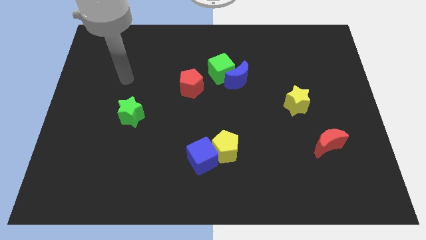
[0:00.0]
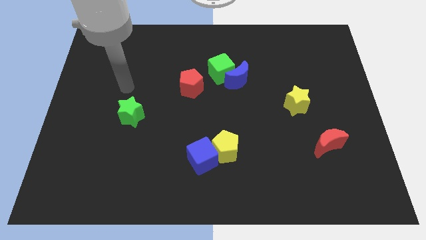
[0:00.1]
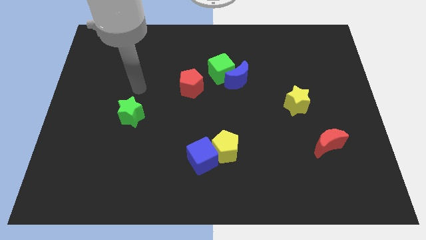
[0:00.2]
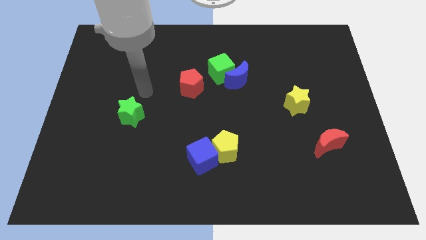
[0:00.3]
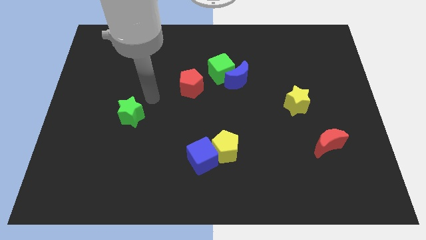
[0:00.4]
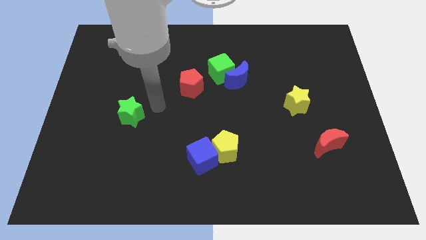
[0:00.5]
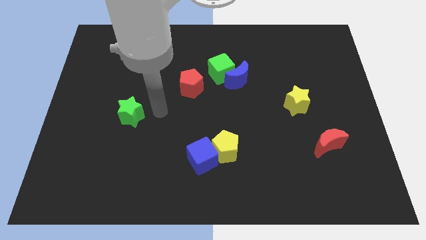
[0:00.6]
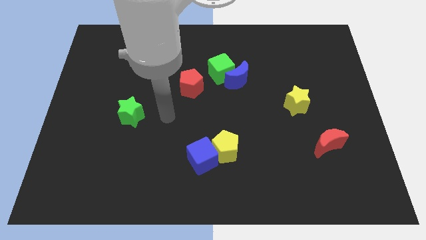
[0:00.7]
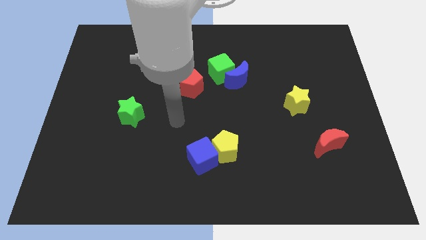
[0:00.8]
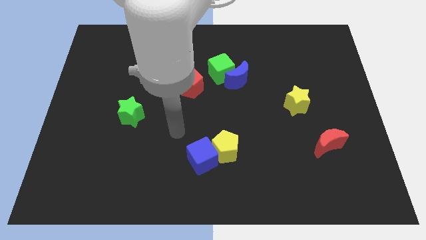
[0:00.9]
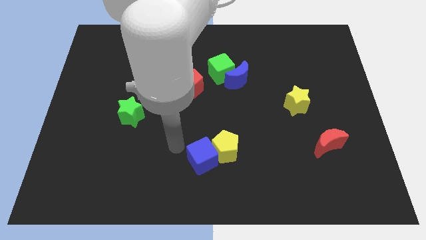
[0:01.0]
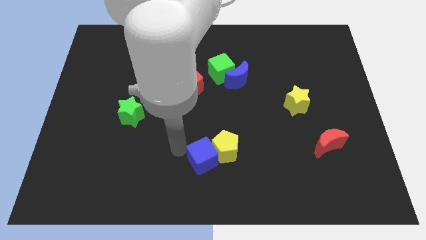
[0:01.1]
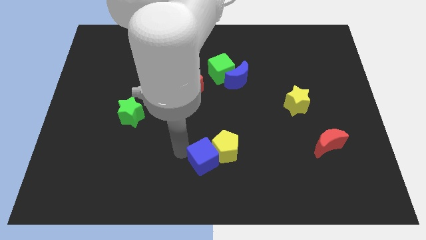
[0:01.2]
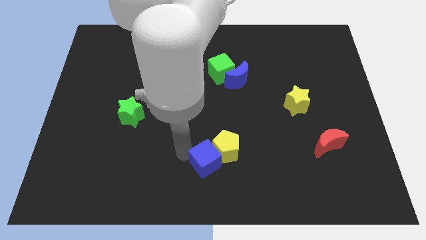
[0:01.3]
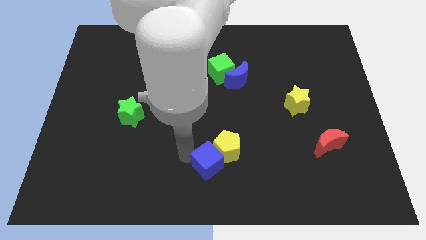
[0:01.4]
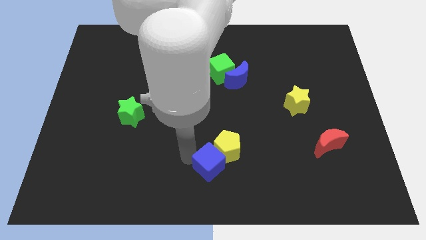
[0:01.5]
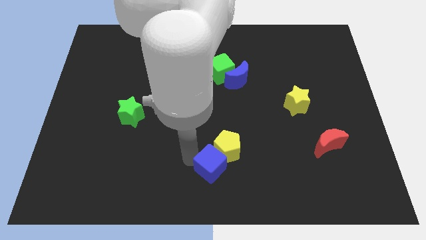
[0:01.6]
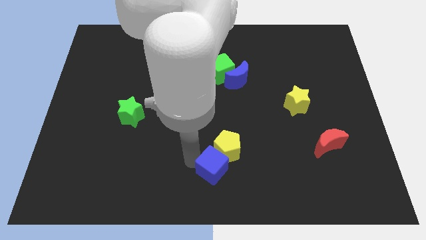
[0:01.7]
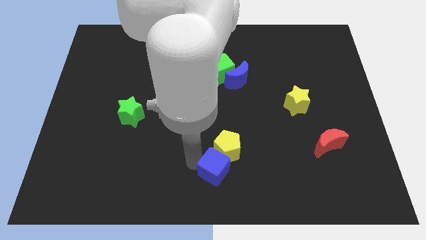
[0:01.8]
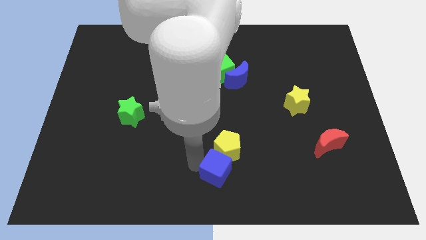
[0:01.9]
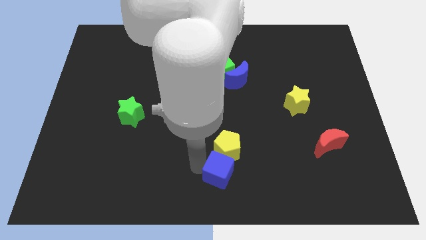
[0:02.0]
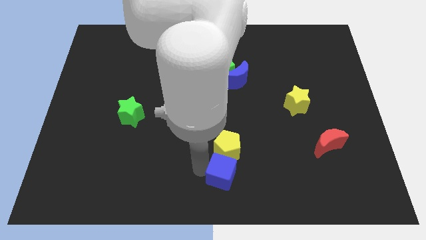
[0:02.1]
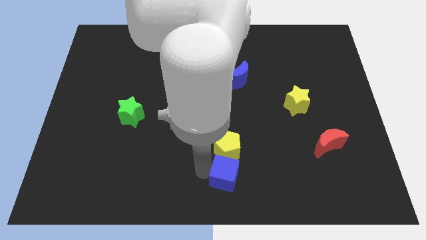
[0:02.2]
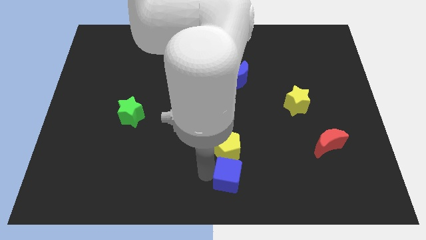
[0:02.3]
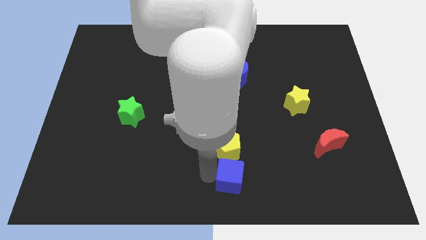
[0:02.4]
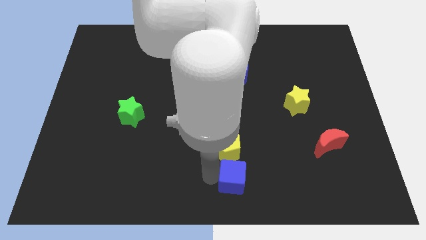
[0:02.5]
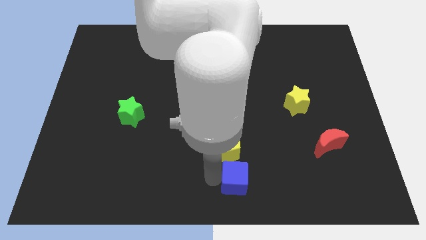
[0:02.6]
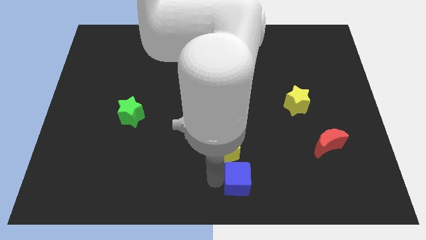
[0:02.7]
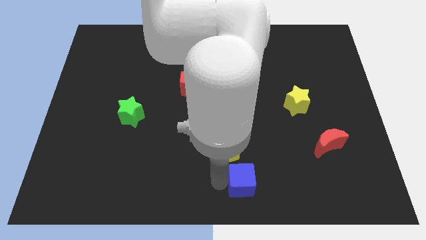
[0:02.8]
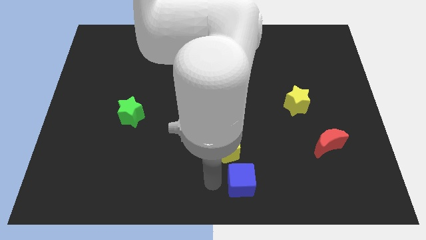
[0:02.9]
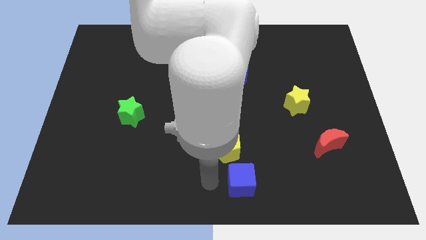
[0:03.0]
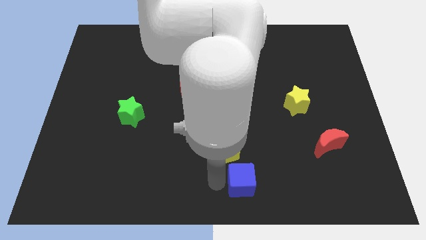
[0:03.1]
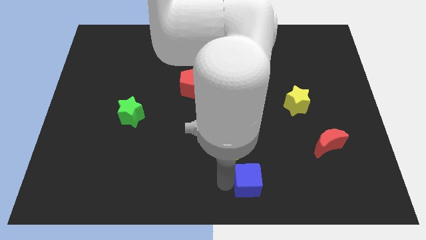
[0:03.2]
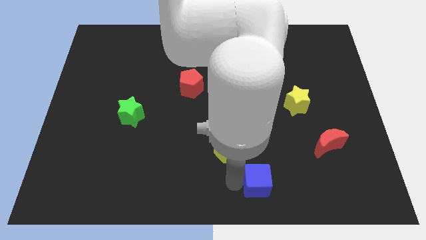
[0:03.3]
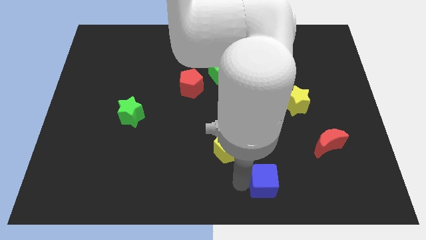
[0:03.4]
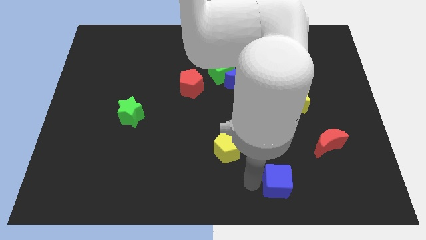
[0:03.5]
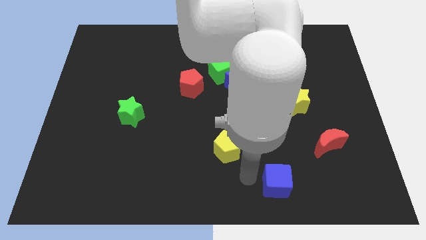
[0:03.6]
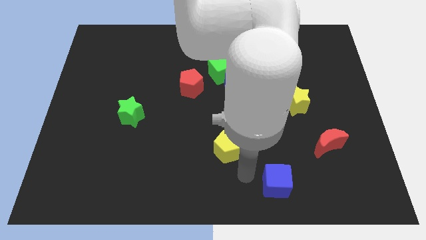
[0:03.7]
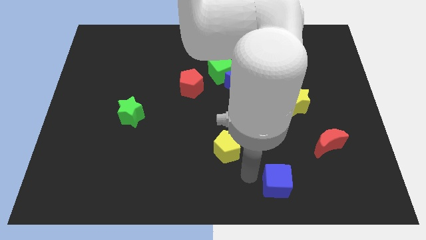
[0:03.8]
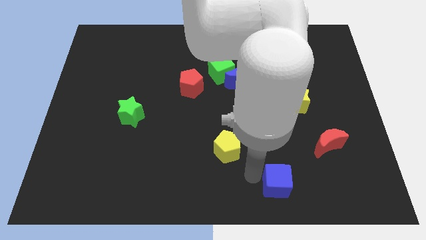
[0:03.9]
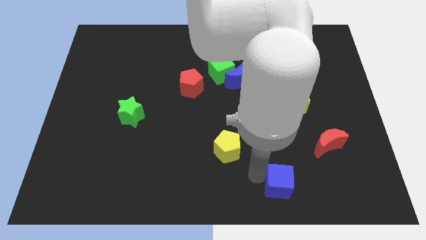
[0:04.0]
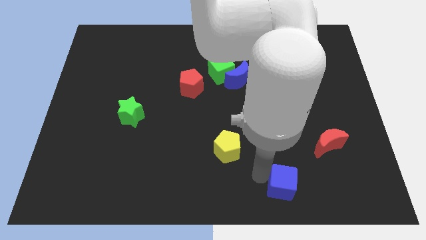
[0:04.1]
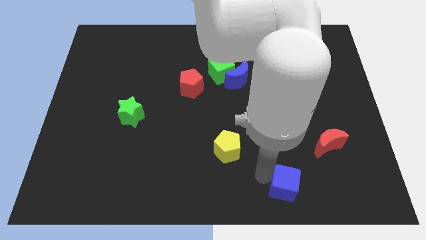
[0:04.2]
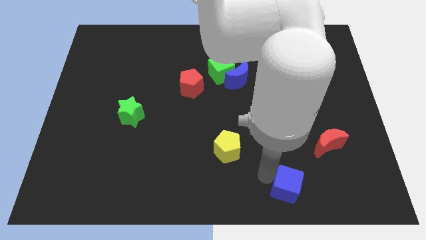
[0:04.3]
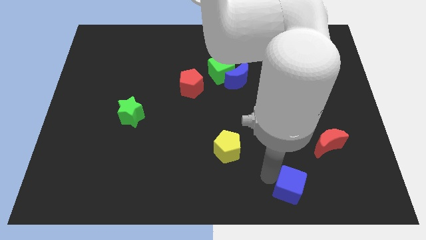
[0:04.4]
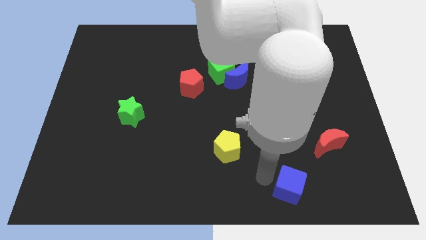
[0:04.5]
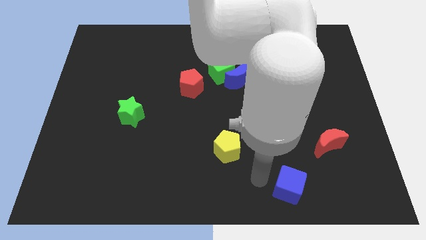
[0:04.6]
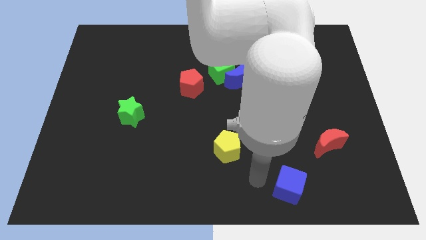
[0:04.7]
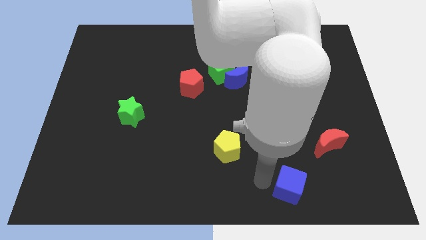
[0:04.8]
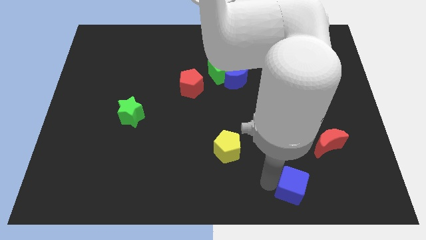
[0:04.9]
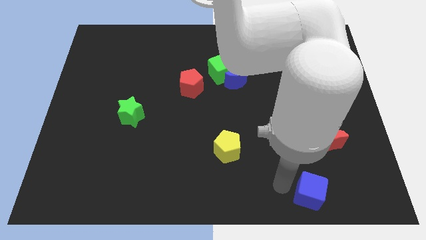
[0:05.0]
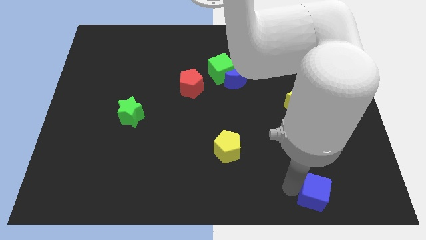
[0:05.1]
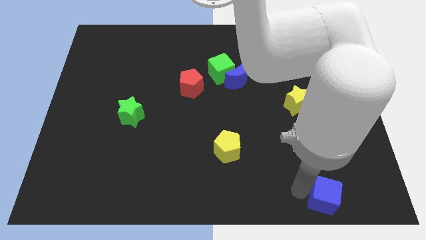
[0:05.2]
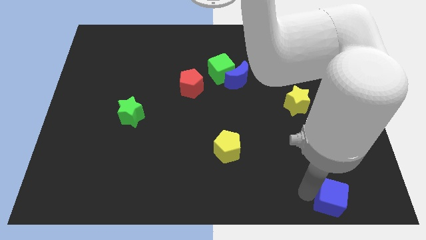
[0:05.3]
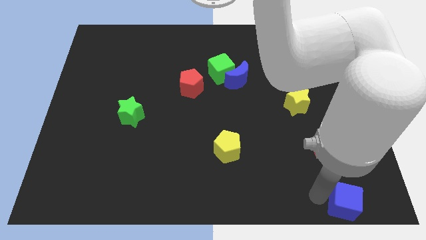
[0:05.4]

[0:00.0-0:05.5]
move the blue cube to the lower right corner

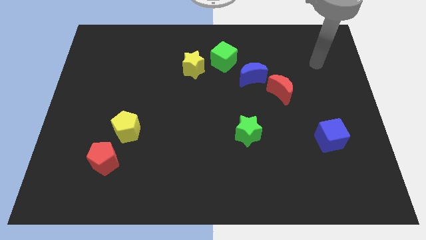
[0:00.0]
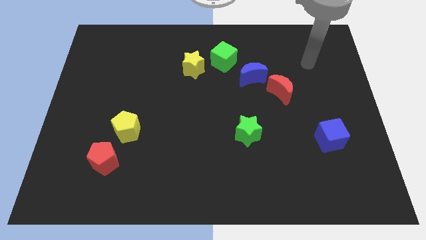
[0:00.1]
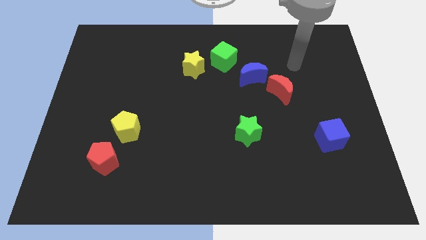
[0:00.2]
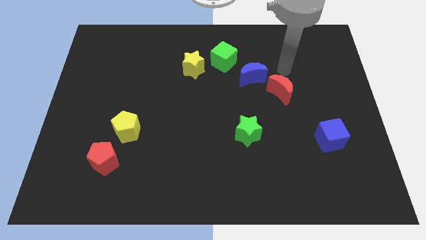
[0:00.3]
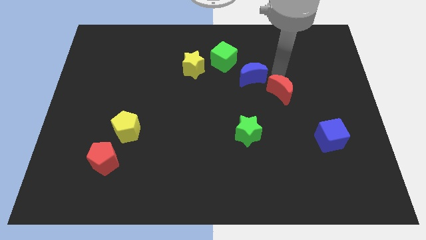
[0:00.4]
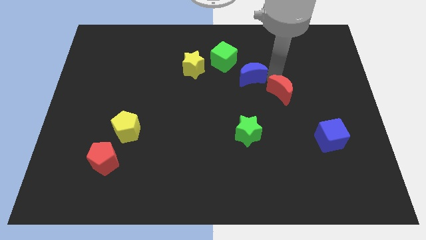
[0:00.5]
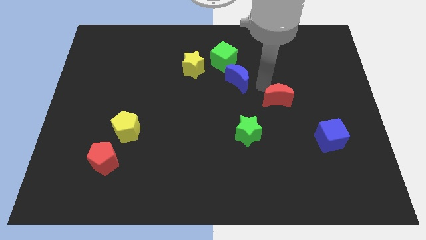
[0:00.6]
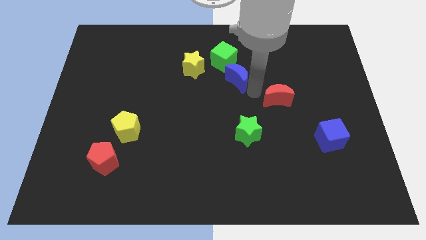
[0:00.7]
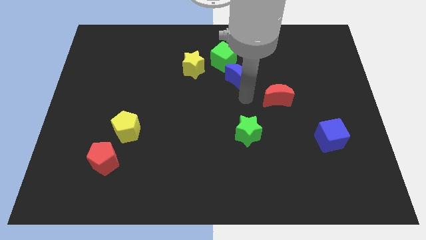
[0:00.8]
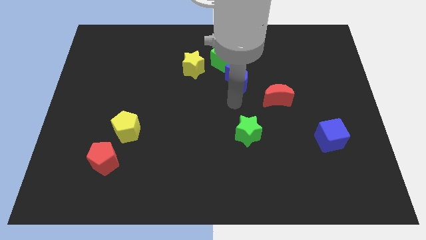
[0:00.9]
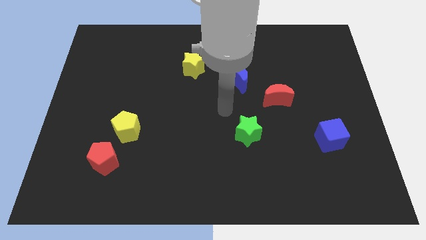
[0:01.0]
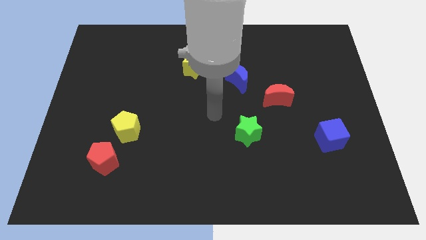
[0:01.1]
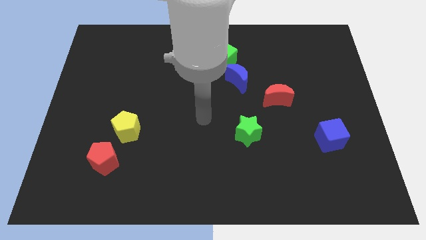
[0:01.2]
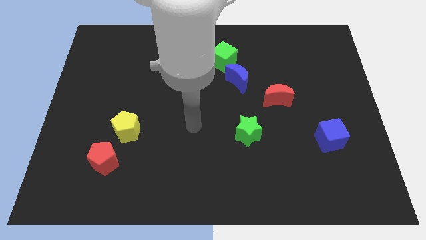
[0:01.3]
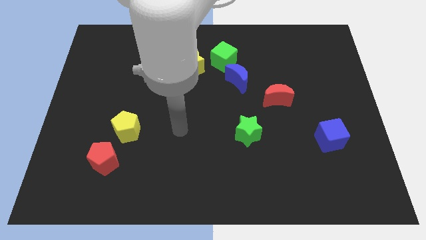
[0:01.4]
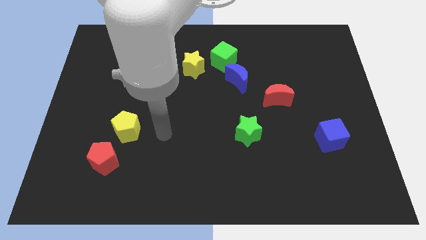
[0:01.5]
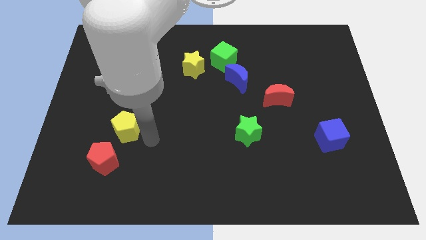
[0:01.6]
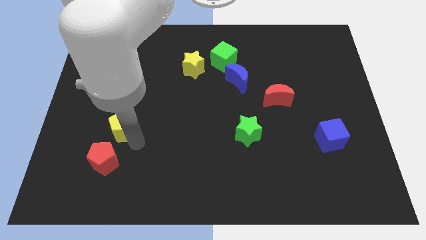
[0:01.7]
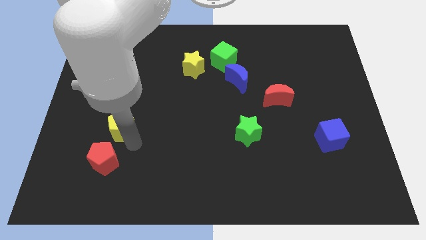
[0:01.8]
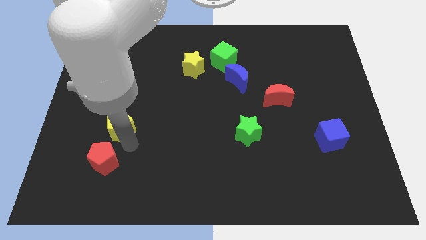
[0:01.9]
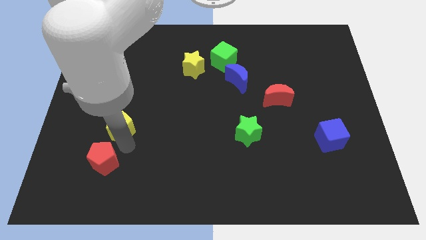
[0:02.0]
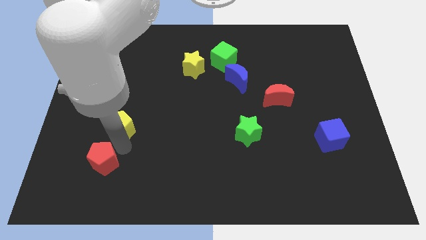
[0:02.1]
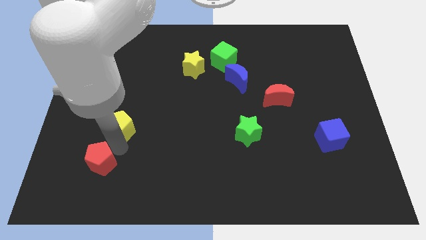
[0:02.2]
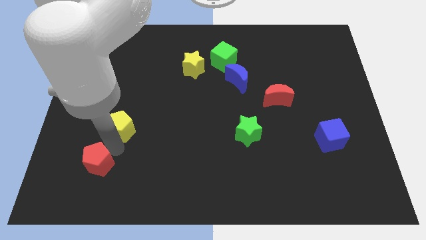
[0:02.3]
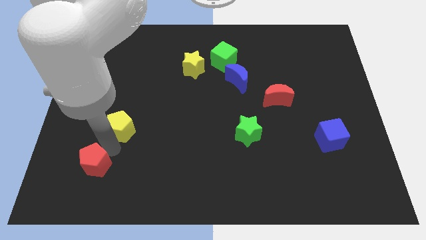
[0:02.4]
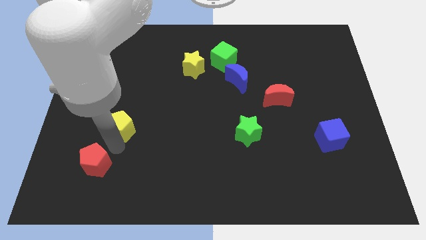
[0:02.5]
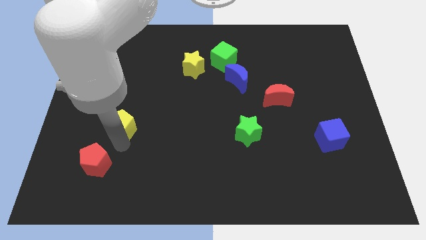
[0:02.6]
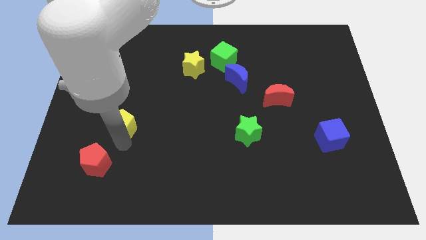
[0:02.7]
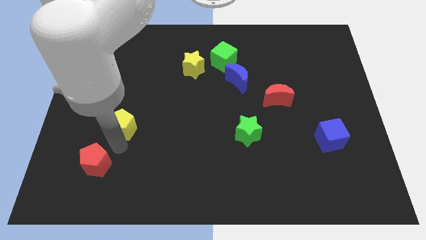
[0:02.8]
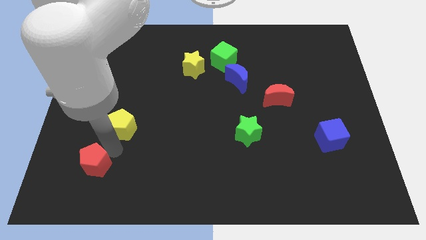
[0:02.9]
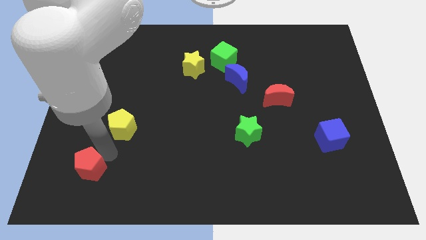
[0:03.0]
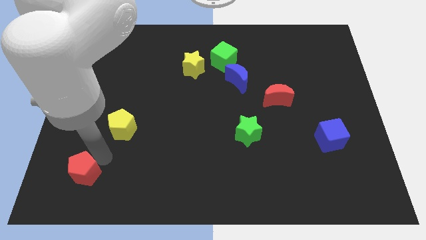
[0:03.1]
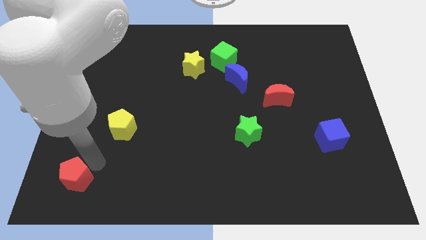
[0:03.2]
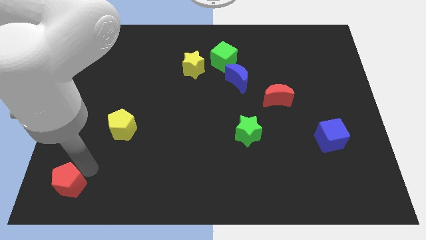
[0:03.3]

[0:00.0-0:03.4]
move the red pentagon to the bottom left of the board
